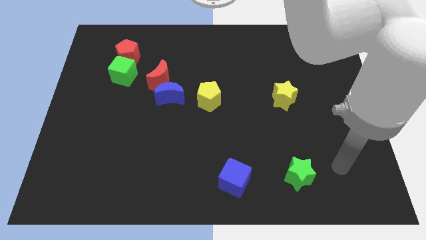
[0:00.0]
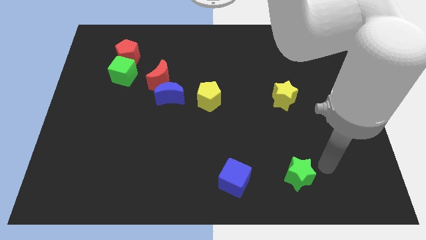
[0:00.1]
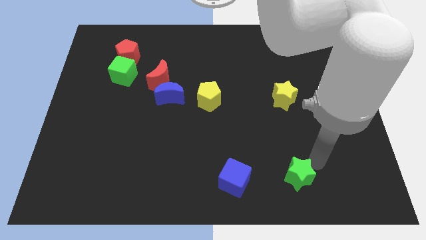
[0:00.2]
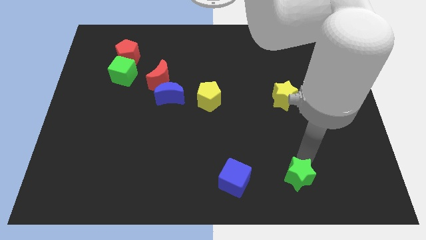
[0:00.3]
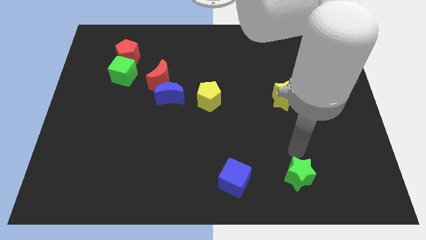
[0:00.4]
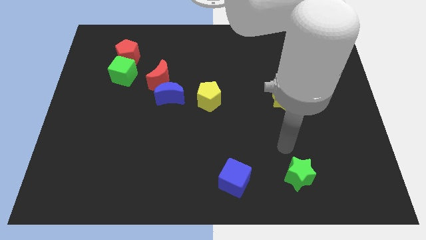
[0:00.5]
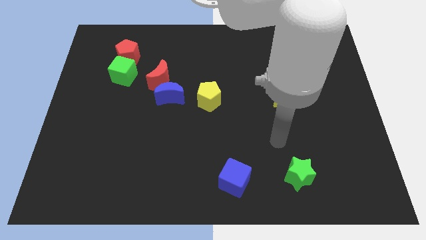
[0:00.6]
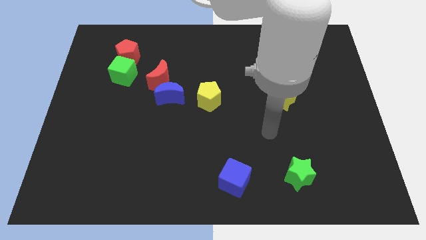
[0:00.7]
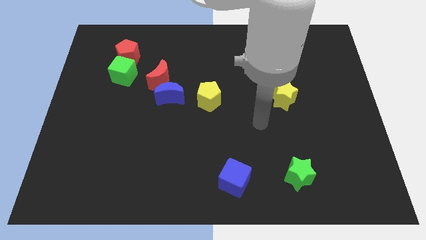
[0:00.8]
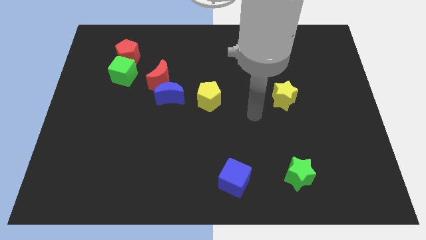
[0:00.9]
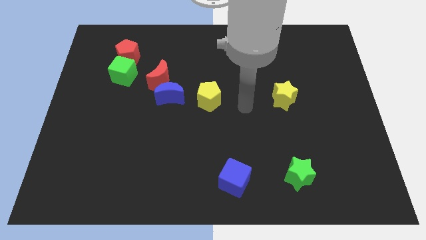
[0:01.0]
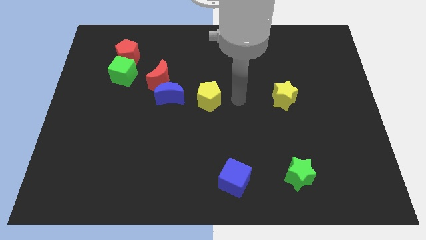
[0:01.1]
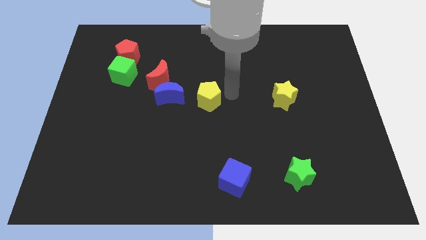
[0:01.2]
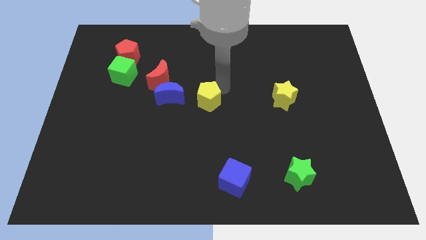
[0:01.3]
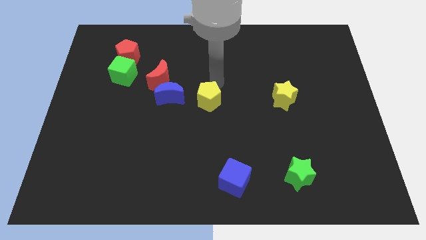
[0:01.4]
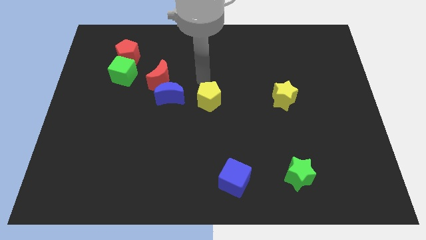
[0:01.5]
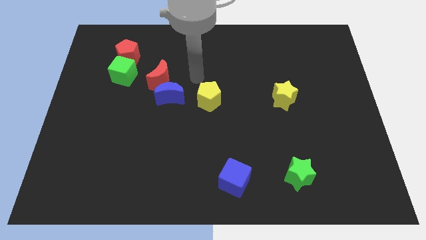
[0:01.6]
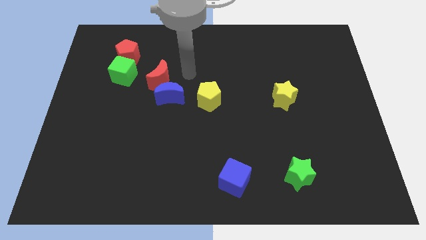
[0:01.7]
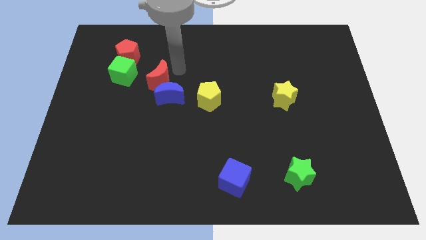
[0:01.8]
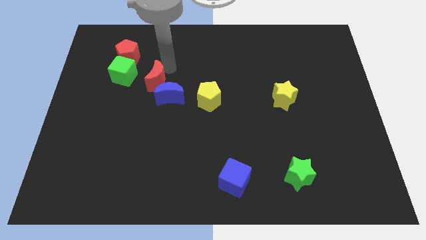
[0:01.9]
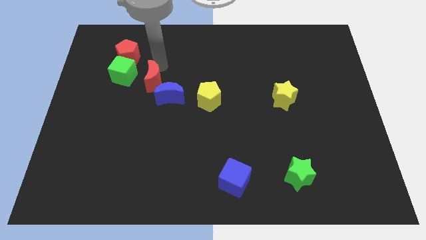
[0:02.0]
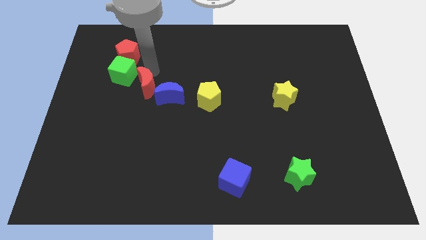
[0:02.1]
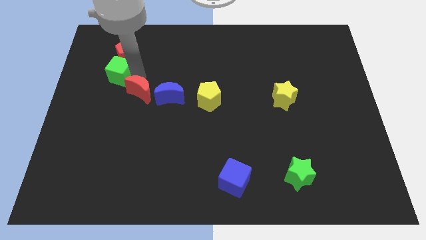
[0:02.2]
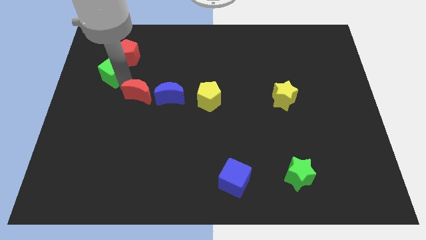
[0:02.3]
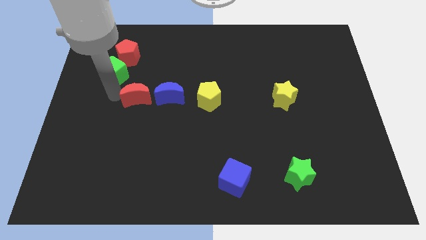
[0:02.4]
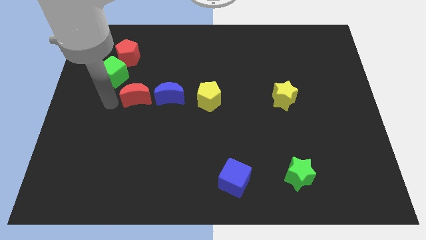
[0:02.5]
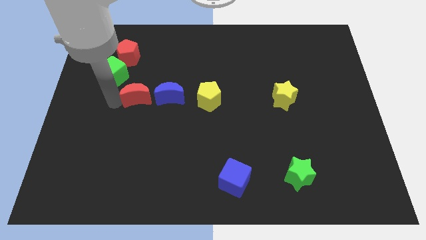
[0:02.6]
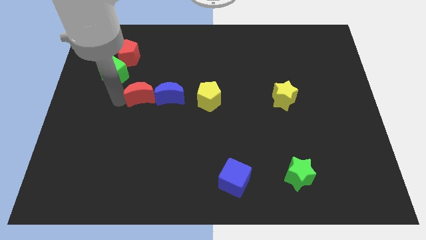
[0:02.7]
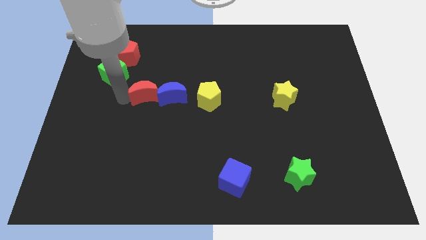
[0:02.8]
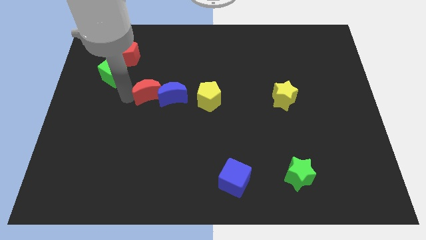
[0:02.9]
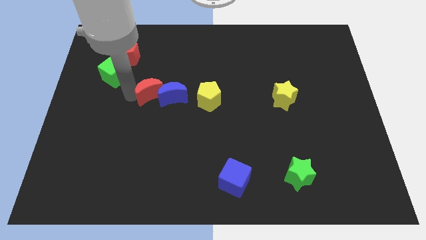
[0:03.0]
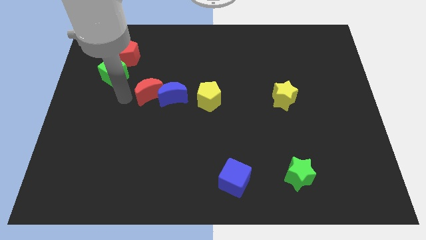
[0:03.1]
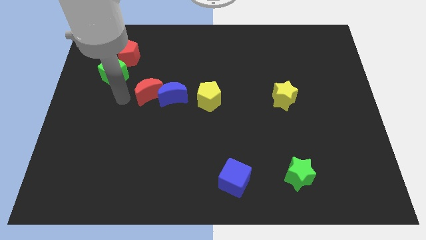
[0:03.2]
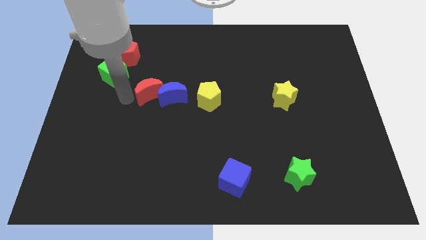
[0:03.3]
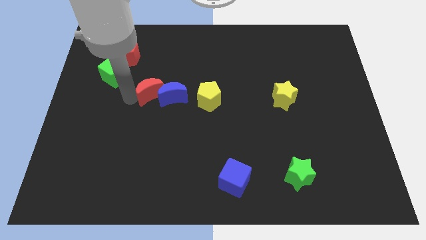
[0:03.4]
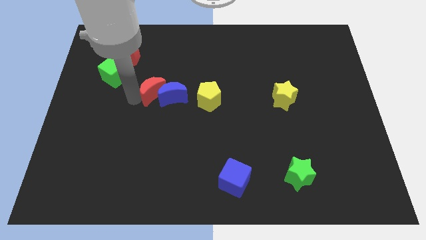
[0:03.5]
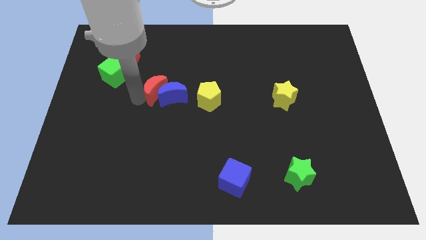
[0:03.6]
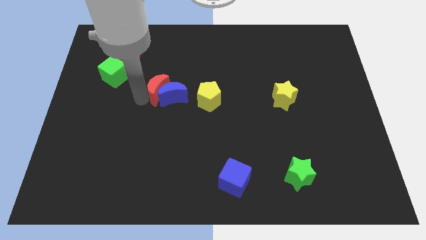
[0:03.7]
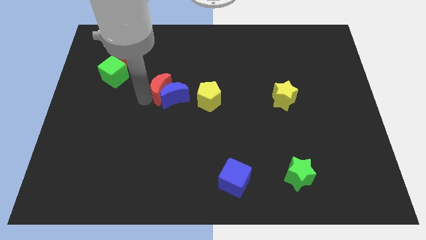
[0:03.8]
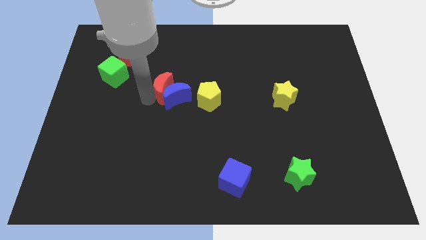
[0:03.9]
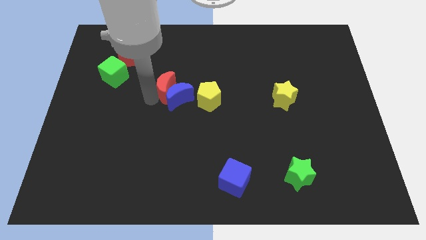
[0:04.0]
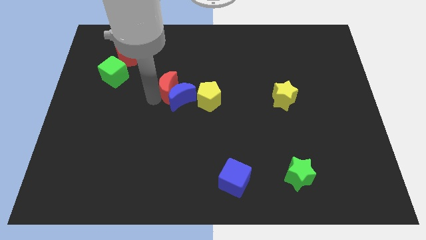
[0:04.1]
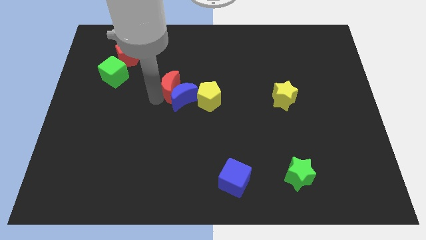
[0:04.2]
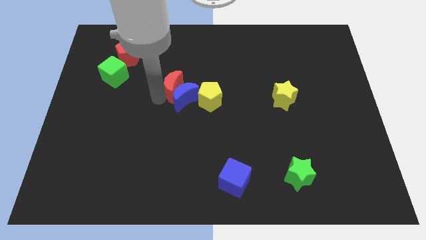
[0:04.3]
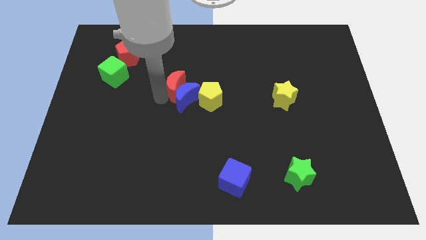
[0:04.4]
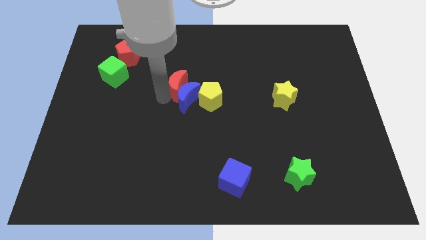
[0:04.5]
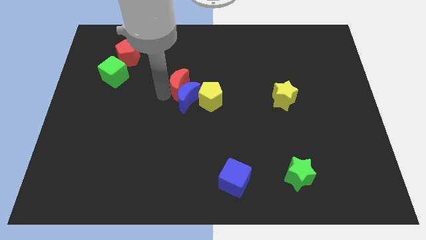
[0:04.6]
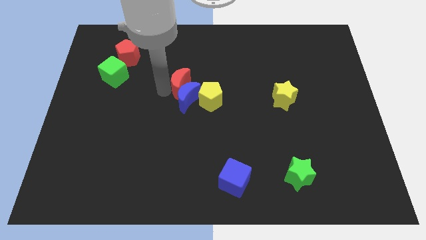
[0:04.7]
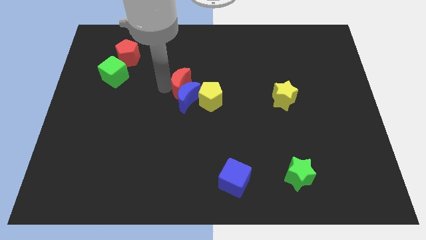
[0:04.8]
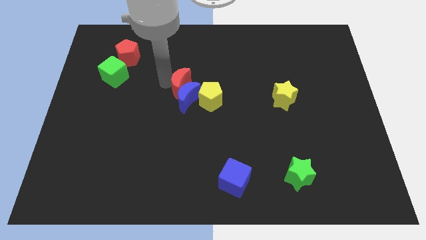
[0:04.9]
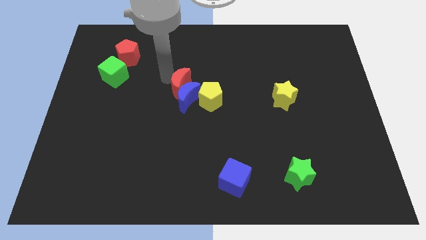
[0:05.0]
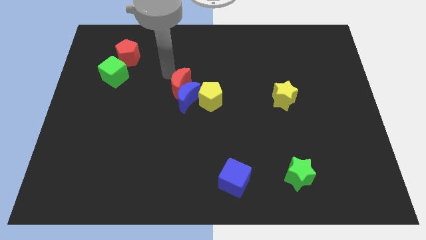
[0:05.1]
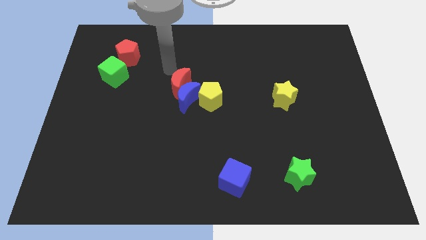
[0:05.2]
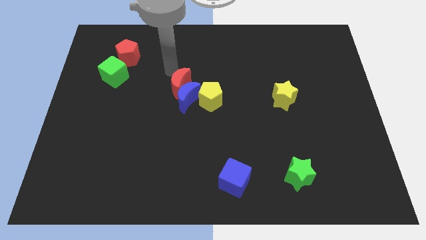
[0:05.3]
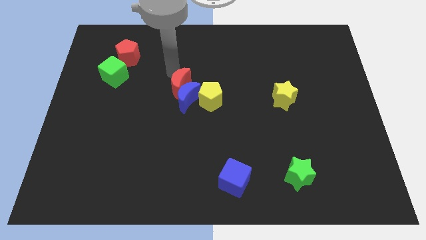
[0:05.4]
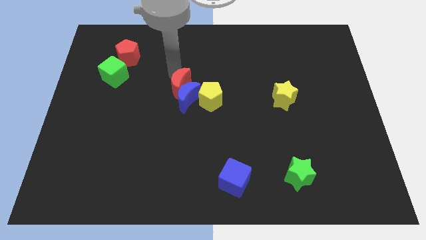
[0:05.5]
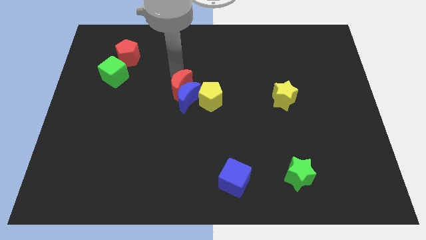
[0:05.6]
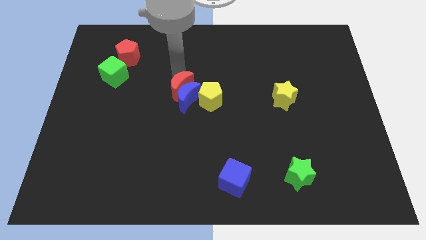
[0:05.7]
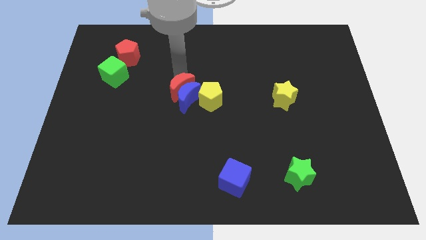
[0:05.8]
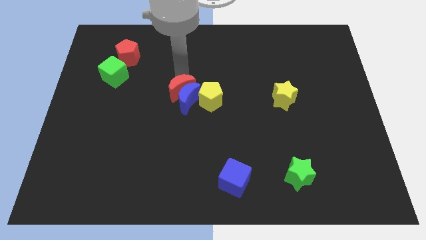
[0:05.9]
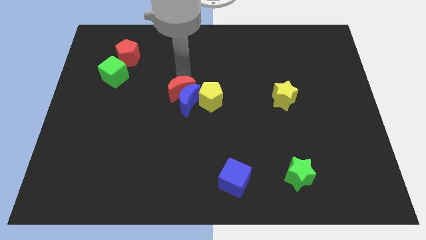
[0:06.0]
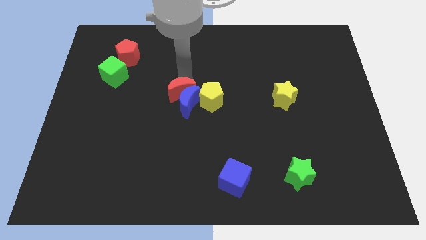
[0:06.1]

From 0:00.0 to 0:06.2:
slightly move the red moon downwards and then to the right

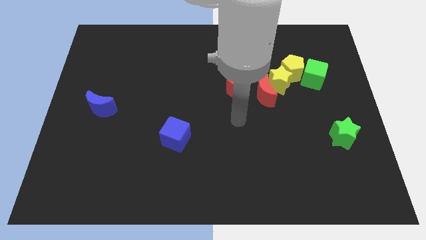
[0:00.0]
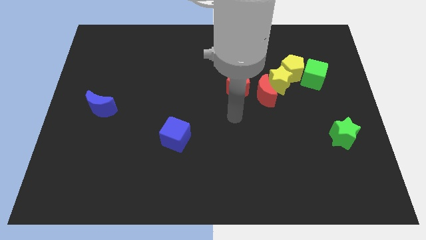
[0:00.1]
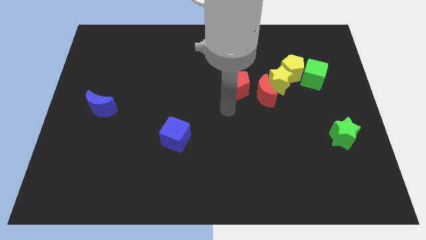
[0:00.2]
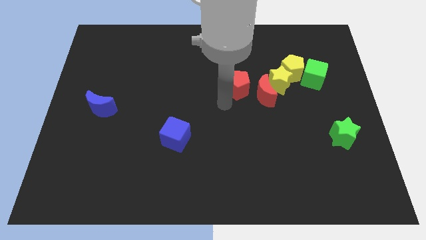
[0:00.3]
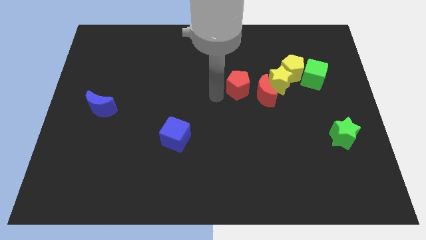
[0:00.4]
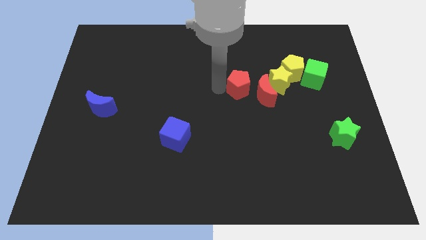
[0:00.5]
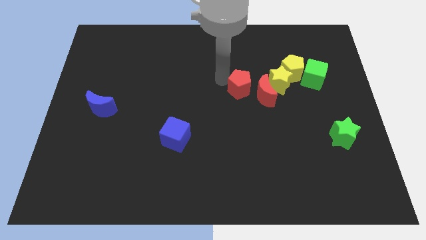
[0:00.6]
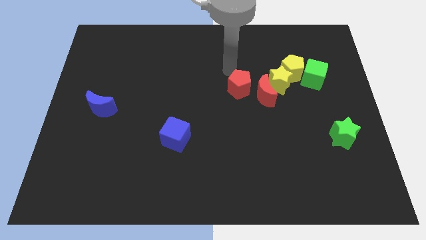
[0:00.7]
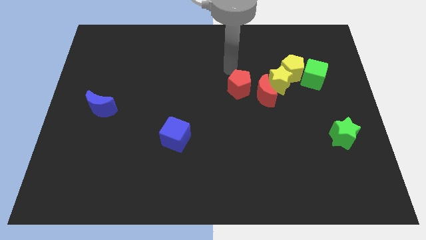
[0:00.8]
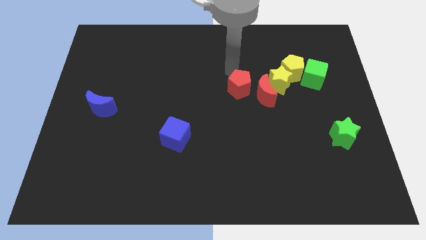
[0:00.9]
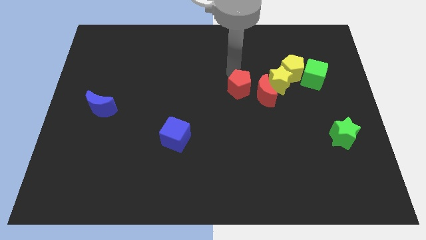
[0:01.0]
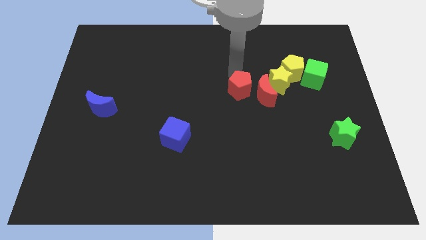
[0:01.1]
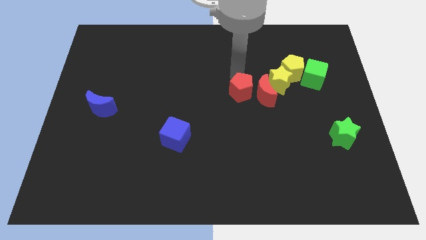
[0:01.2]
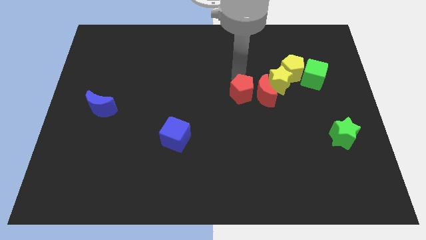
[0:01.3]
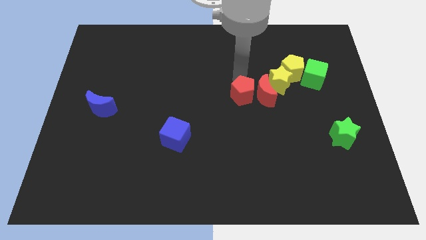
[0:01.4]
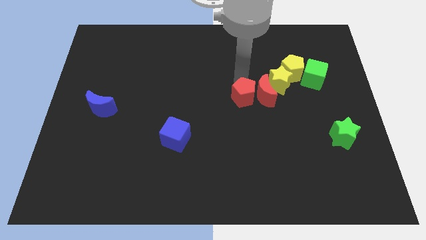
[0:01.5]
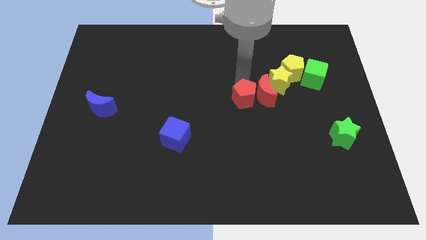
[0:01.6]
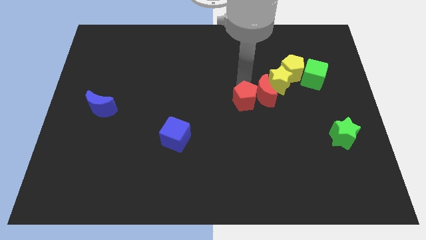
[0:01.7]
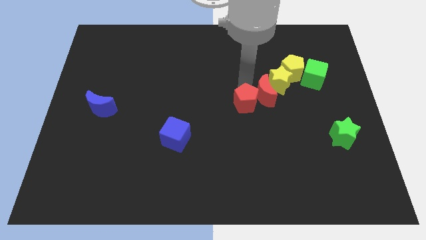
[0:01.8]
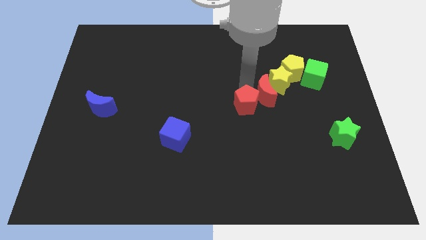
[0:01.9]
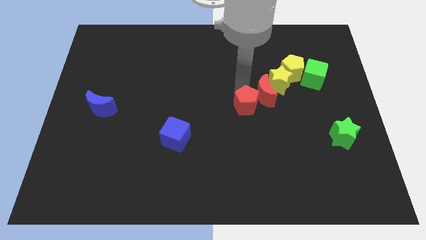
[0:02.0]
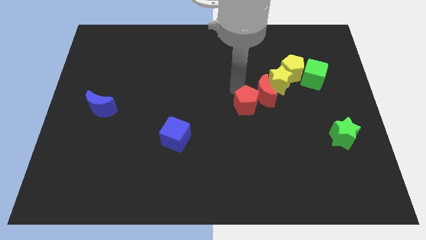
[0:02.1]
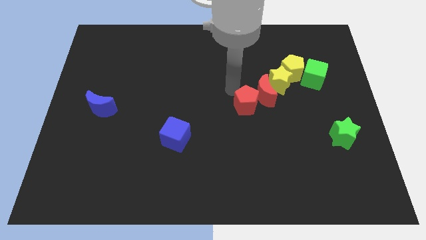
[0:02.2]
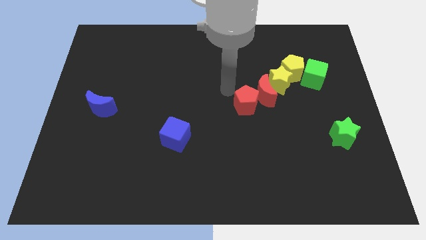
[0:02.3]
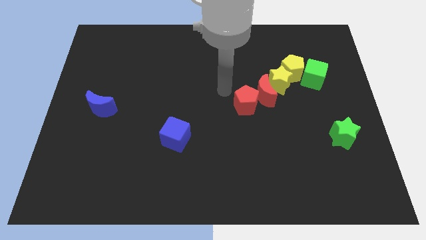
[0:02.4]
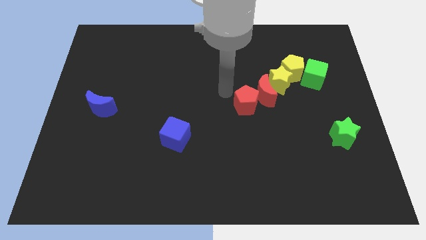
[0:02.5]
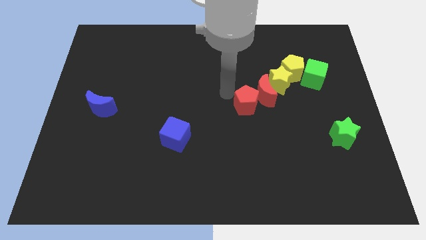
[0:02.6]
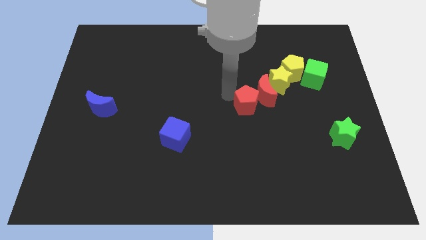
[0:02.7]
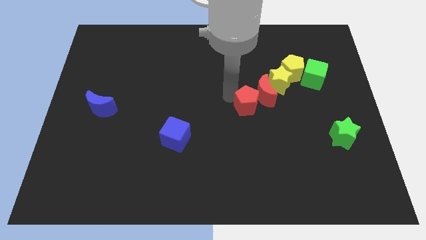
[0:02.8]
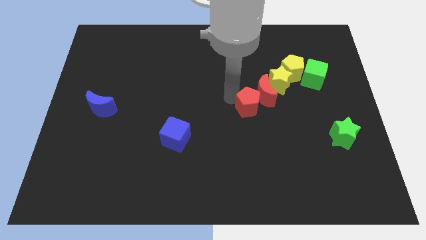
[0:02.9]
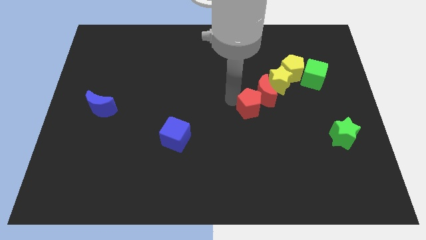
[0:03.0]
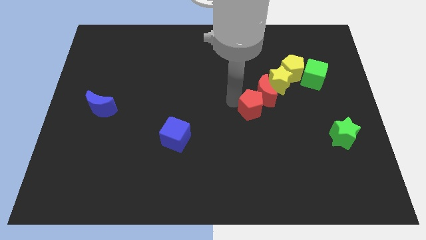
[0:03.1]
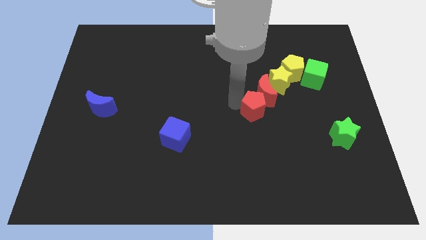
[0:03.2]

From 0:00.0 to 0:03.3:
push the red pentagon a bit down and to the right diagonally
